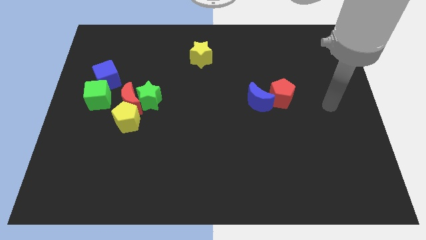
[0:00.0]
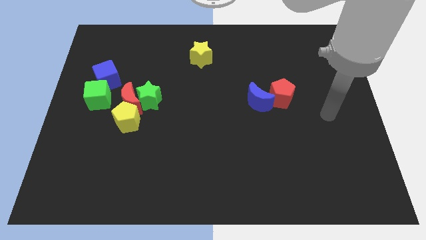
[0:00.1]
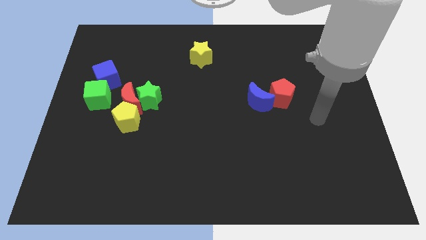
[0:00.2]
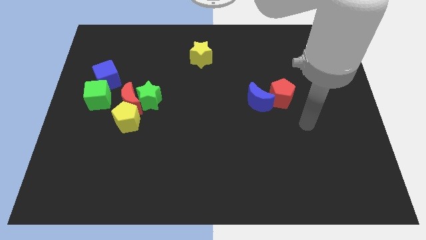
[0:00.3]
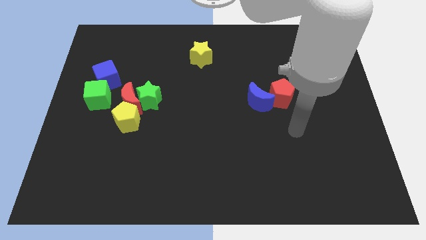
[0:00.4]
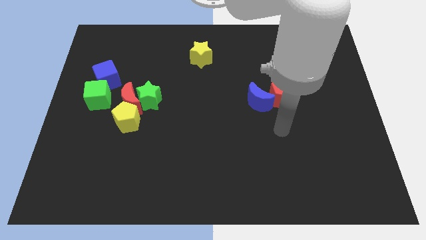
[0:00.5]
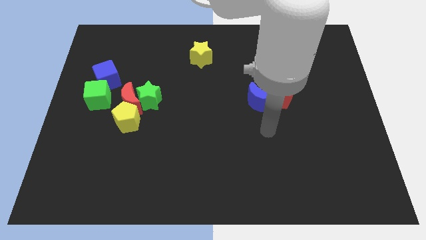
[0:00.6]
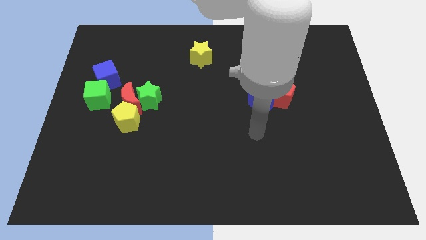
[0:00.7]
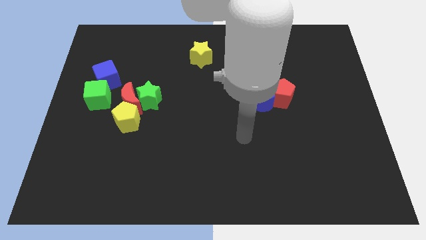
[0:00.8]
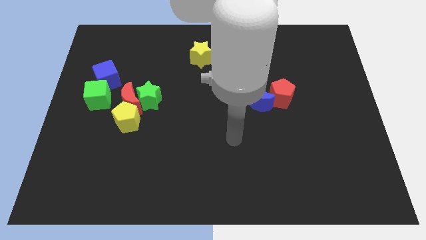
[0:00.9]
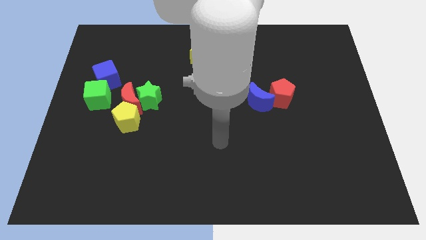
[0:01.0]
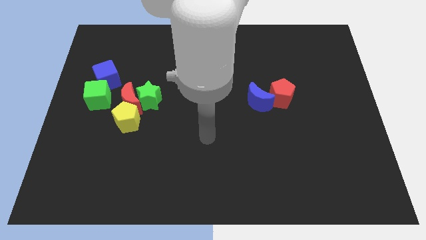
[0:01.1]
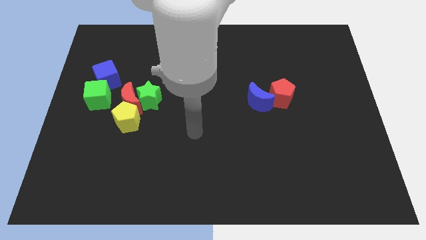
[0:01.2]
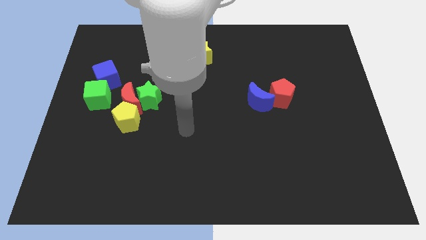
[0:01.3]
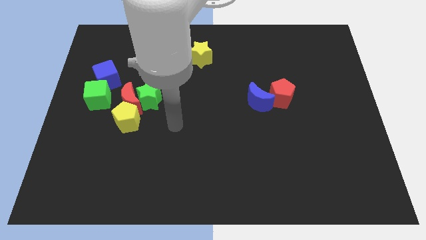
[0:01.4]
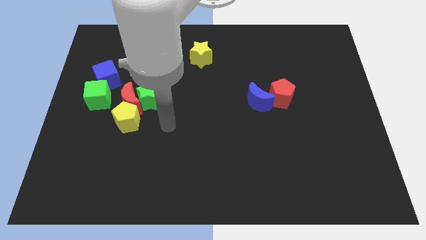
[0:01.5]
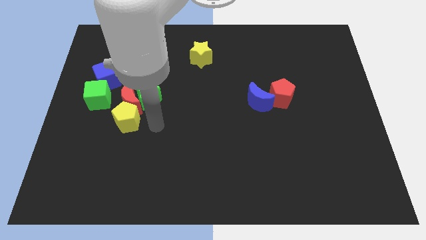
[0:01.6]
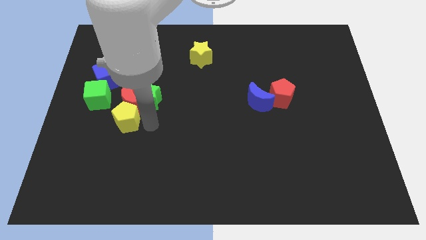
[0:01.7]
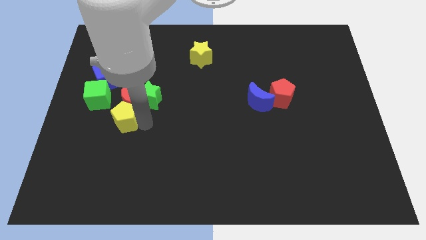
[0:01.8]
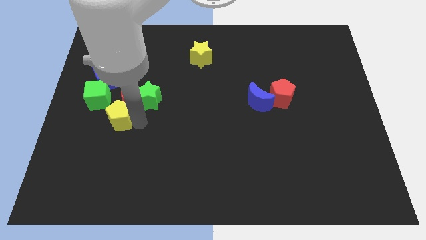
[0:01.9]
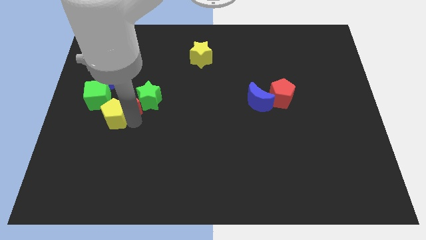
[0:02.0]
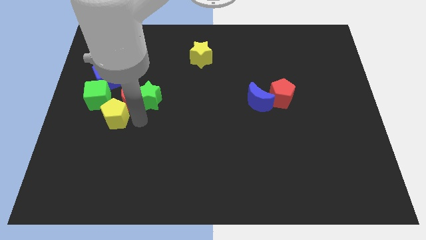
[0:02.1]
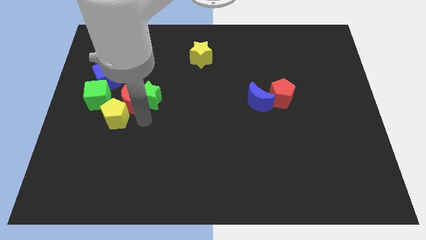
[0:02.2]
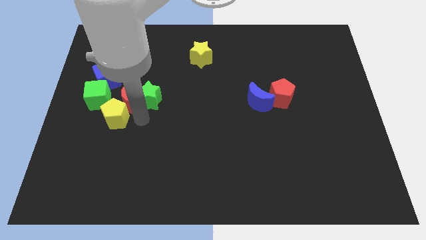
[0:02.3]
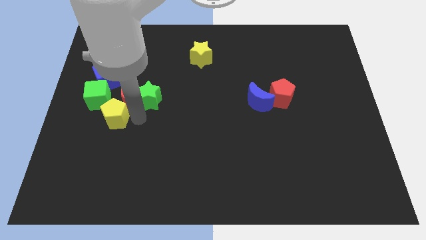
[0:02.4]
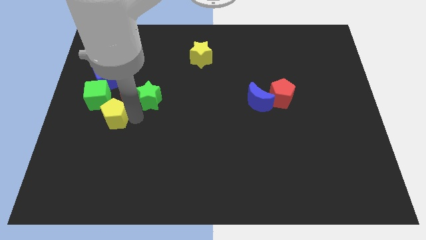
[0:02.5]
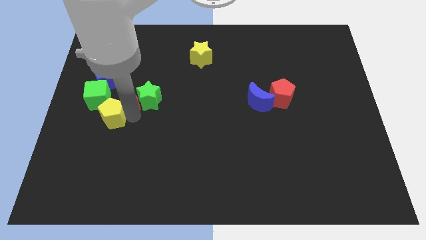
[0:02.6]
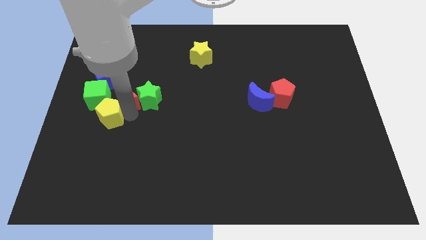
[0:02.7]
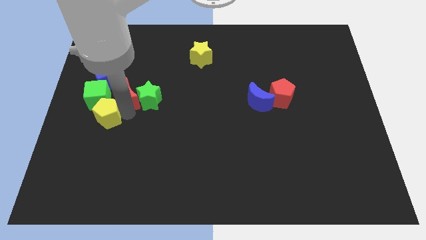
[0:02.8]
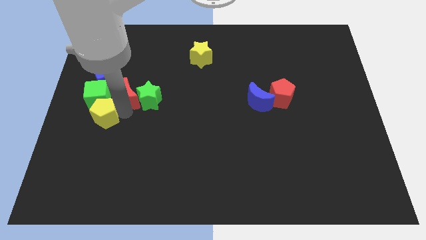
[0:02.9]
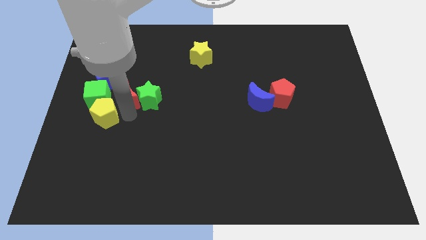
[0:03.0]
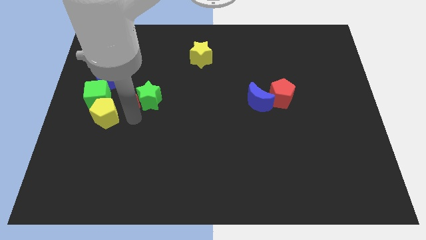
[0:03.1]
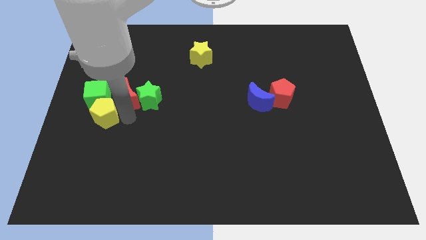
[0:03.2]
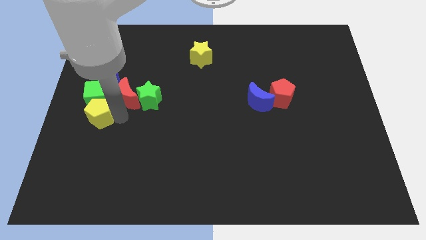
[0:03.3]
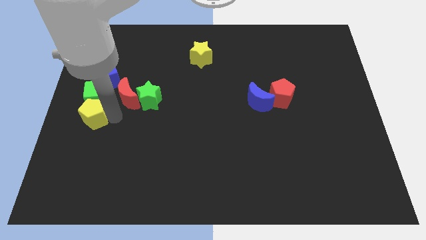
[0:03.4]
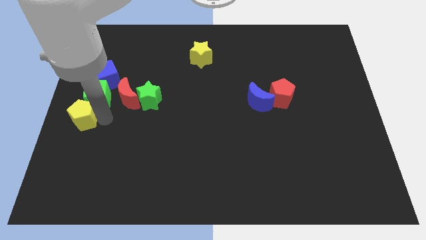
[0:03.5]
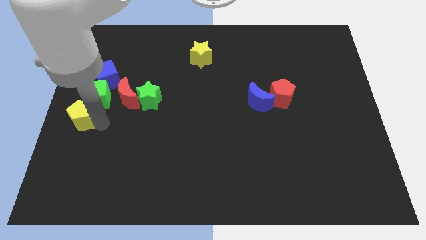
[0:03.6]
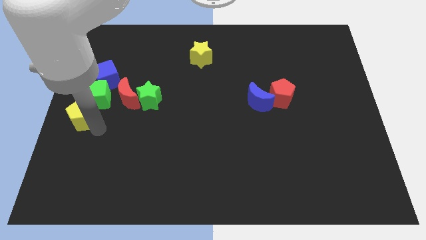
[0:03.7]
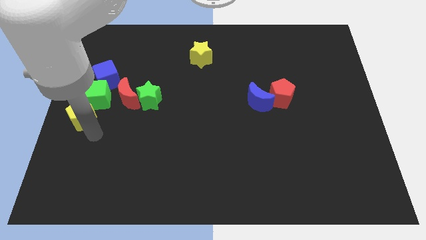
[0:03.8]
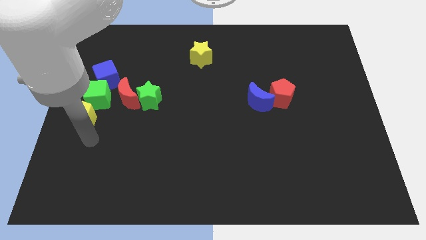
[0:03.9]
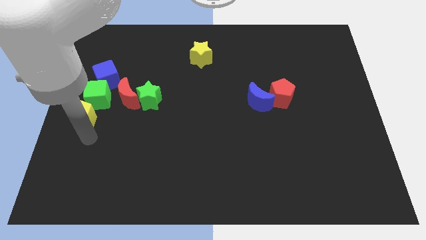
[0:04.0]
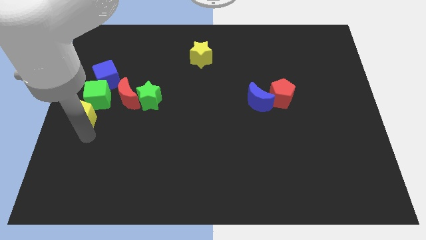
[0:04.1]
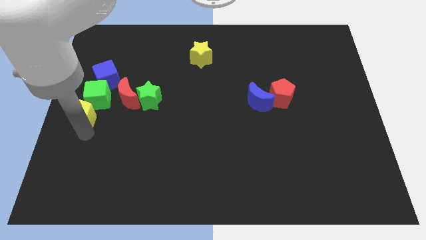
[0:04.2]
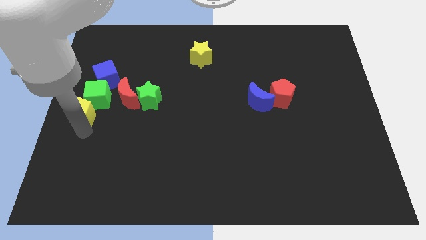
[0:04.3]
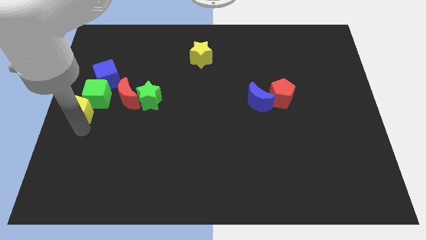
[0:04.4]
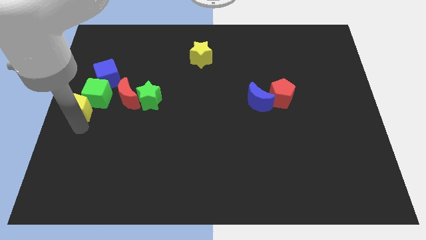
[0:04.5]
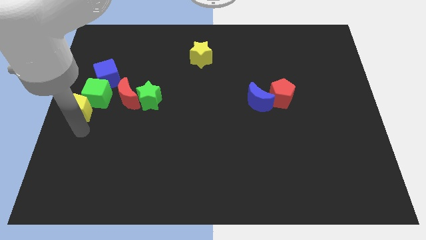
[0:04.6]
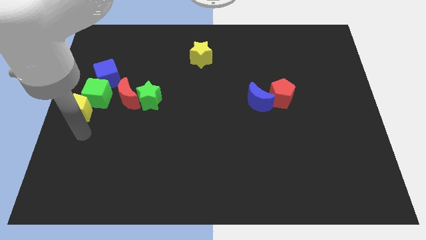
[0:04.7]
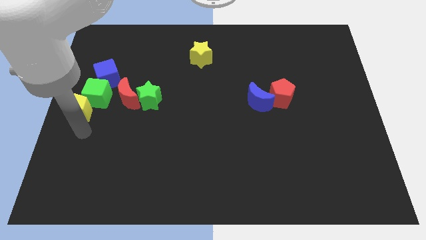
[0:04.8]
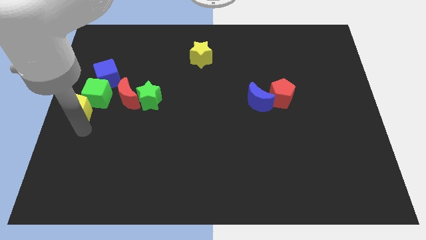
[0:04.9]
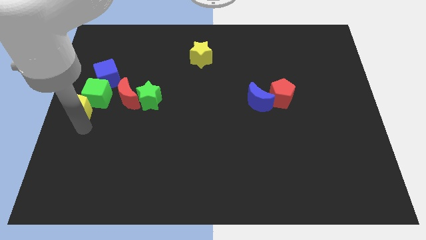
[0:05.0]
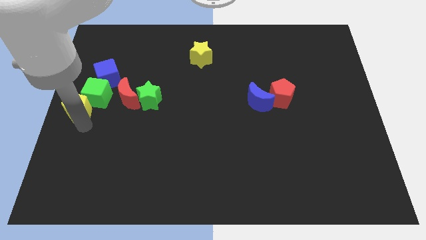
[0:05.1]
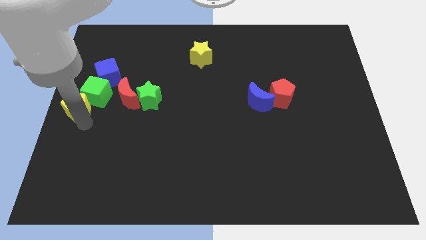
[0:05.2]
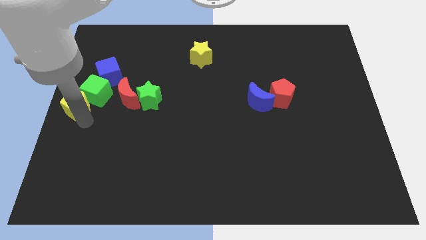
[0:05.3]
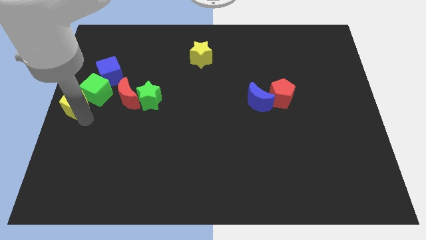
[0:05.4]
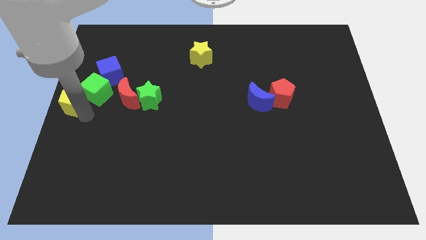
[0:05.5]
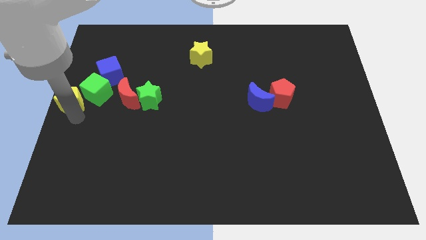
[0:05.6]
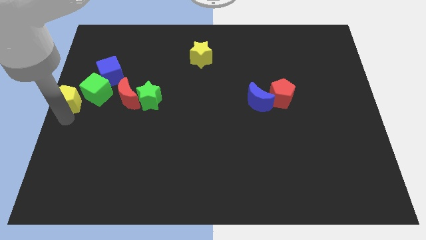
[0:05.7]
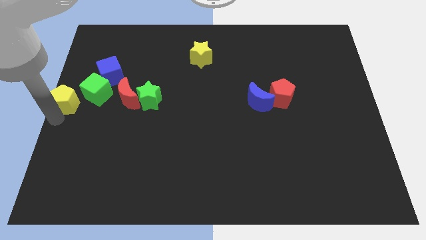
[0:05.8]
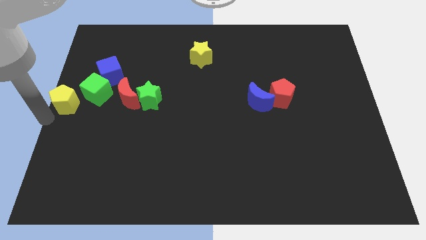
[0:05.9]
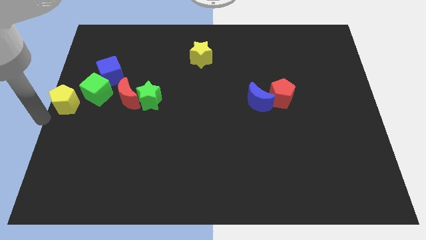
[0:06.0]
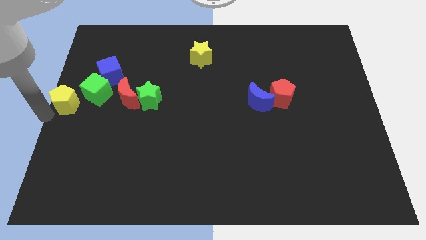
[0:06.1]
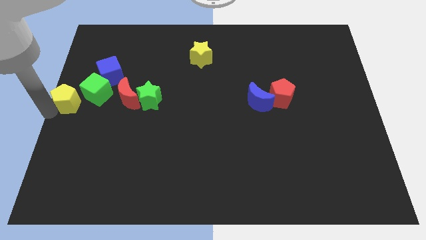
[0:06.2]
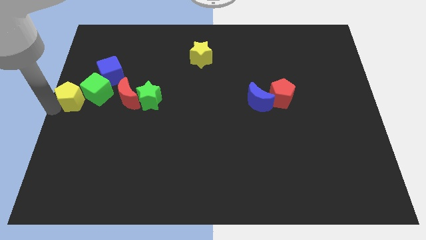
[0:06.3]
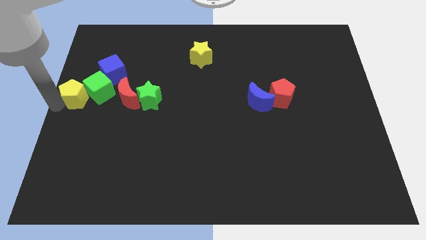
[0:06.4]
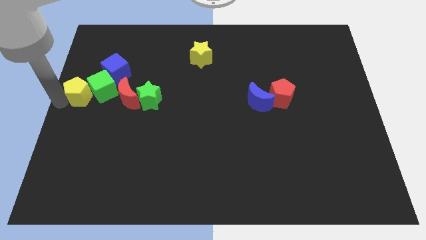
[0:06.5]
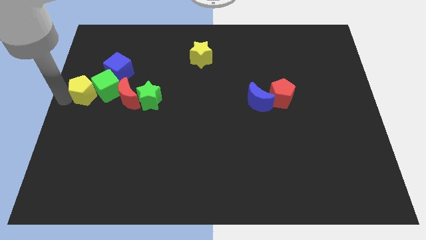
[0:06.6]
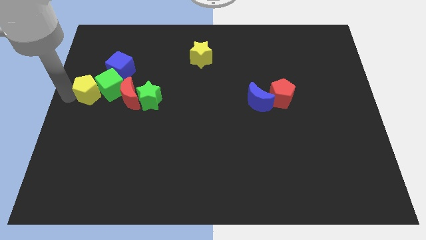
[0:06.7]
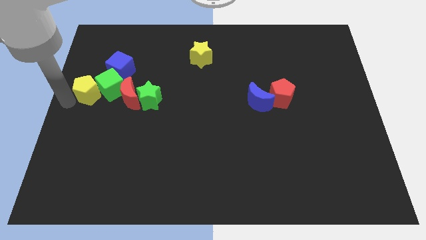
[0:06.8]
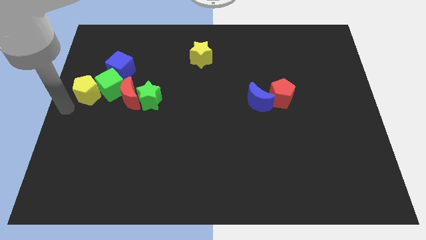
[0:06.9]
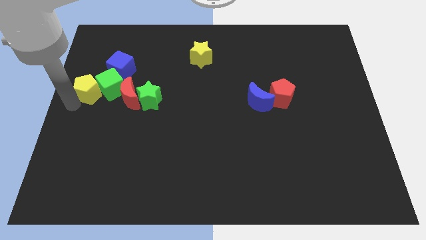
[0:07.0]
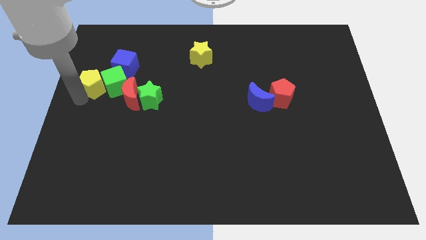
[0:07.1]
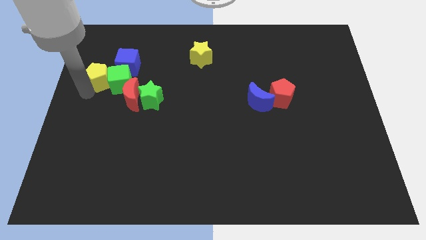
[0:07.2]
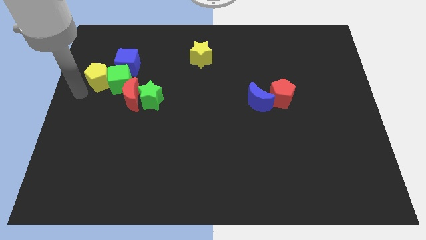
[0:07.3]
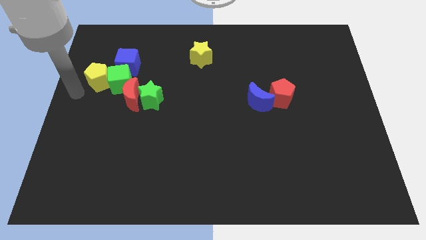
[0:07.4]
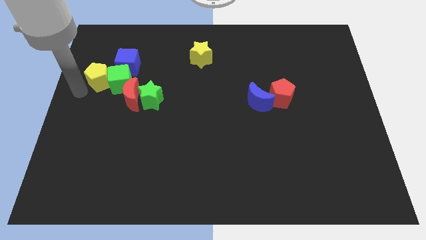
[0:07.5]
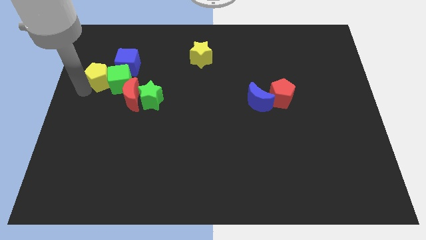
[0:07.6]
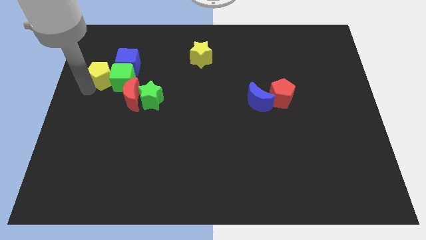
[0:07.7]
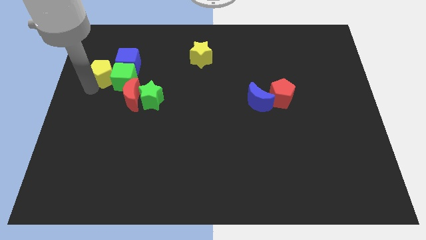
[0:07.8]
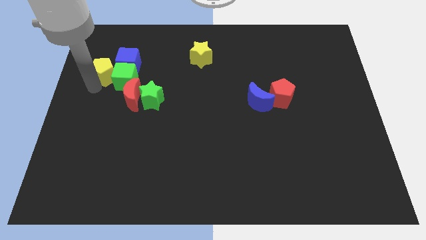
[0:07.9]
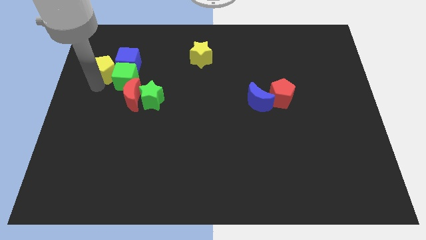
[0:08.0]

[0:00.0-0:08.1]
push the yellow pentagon next to the blue cube
